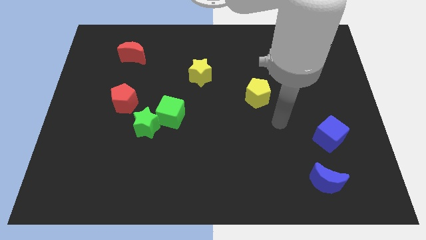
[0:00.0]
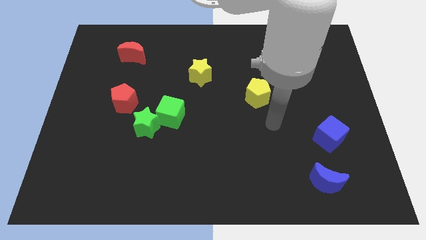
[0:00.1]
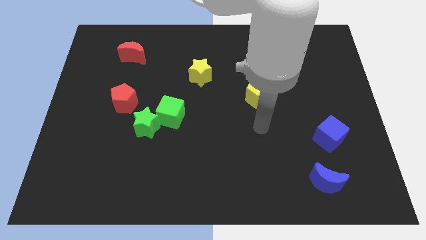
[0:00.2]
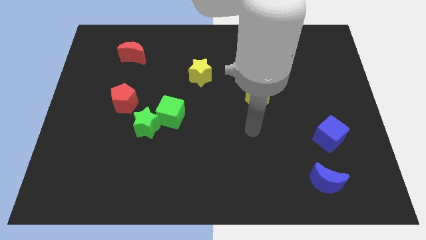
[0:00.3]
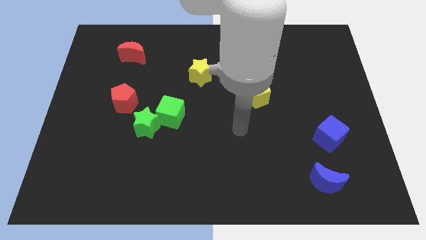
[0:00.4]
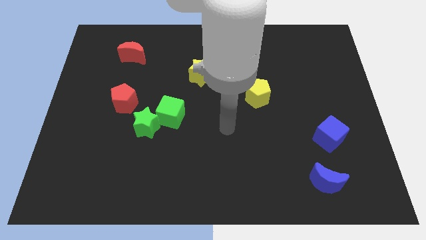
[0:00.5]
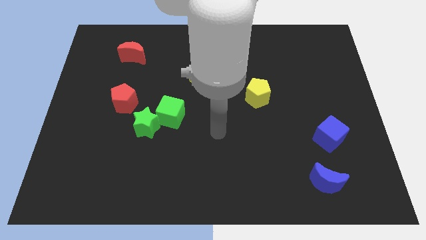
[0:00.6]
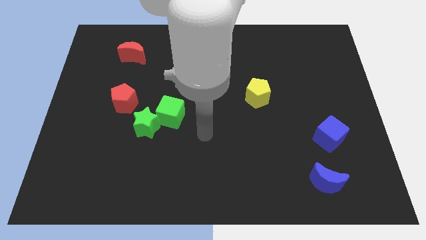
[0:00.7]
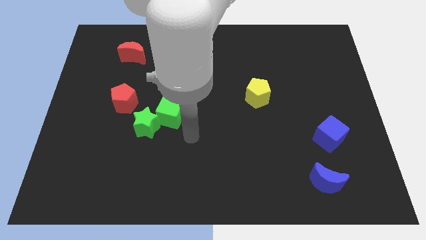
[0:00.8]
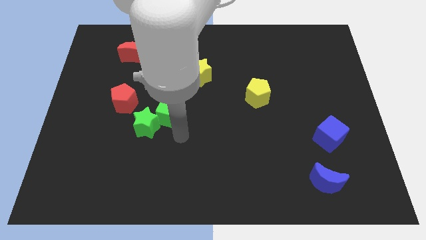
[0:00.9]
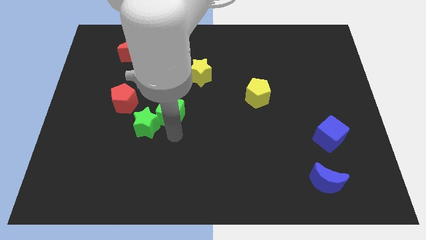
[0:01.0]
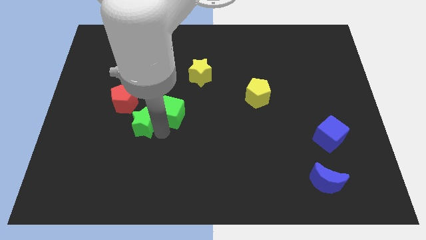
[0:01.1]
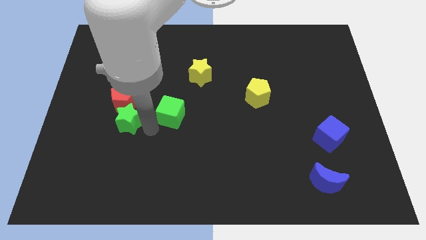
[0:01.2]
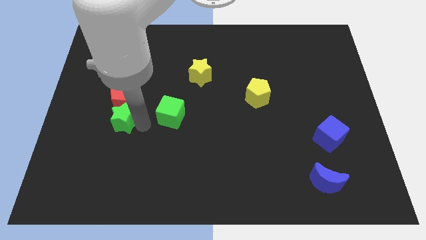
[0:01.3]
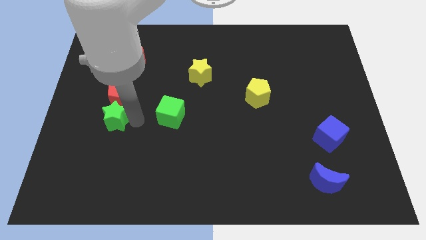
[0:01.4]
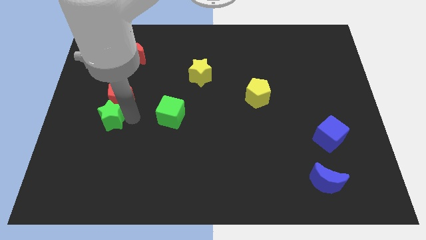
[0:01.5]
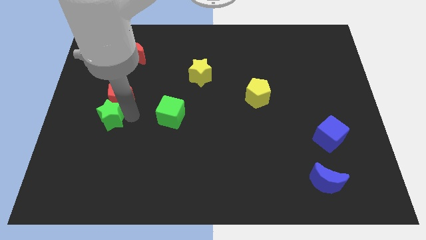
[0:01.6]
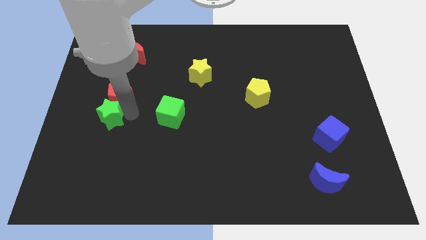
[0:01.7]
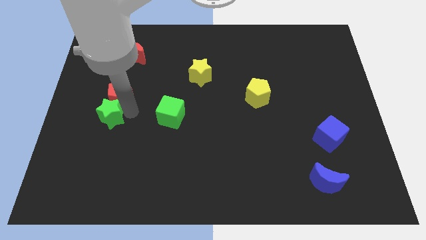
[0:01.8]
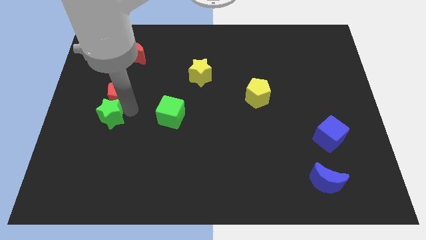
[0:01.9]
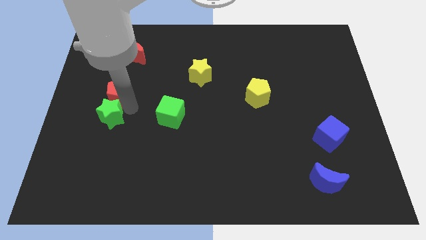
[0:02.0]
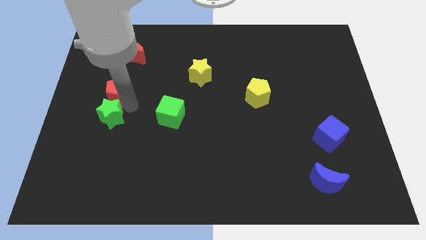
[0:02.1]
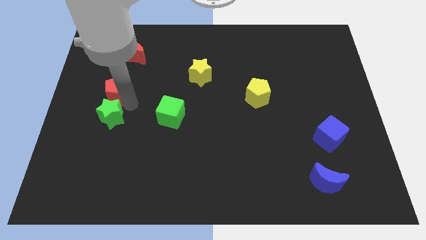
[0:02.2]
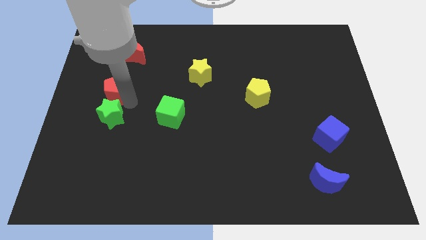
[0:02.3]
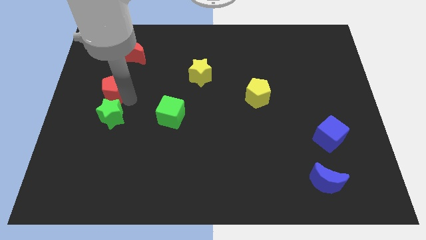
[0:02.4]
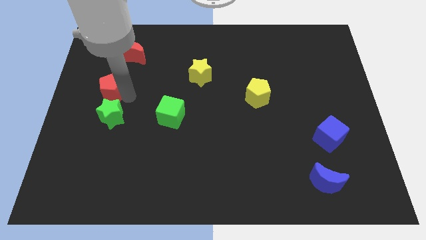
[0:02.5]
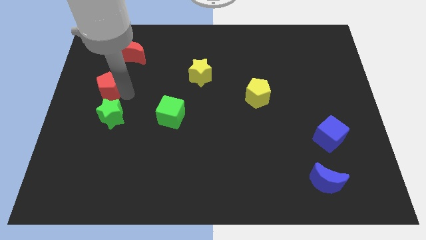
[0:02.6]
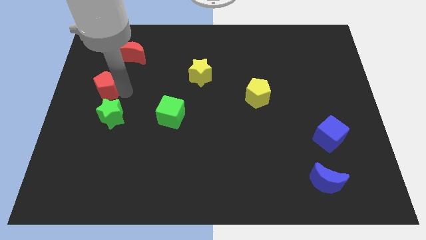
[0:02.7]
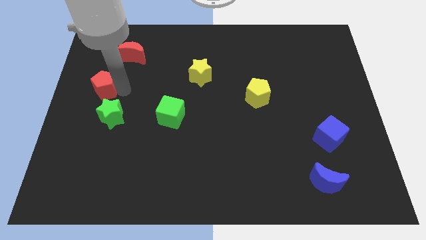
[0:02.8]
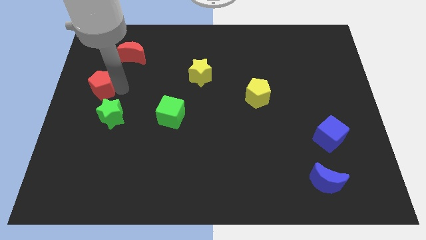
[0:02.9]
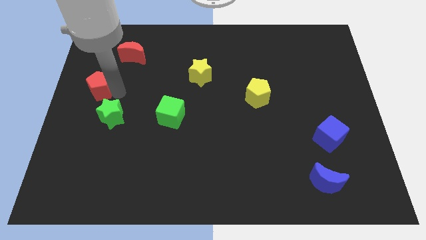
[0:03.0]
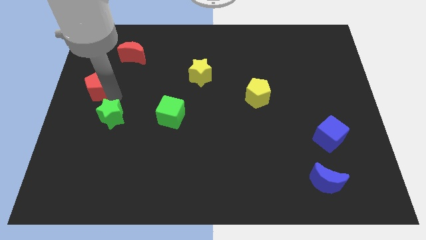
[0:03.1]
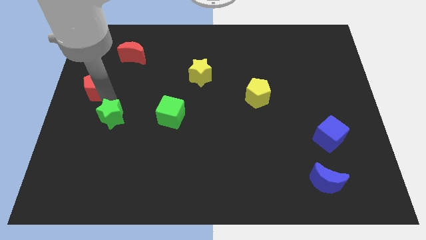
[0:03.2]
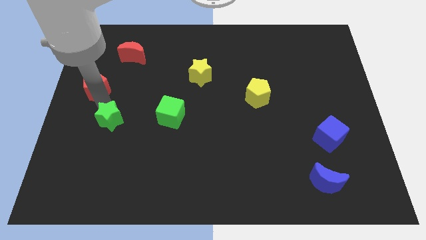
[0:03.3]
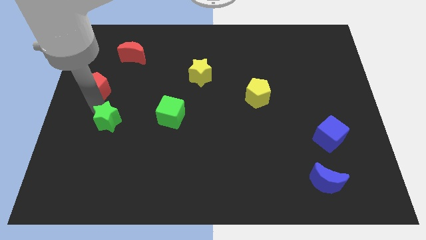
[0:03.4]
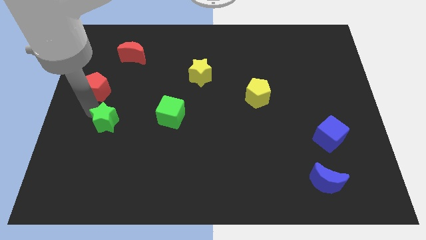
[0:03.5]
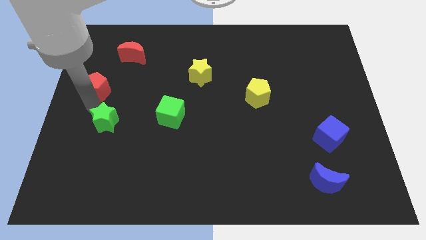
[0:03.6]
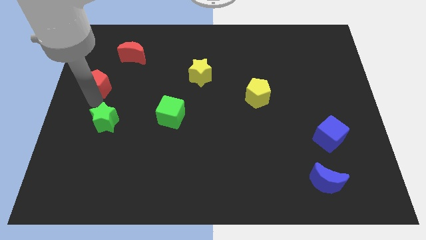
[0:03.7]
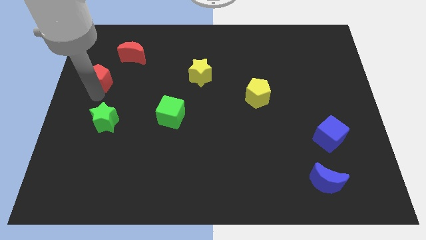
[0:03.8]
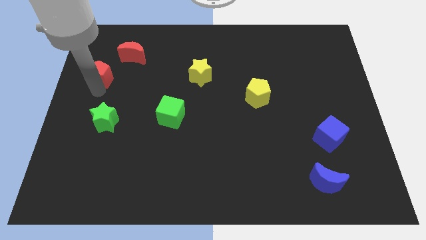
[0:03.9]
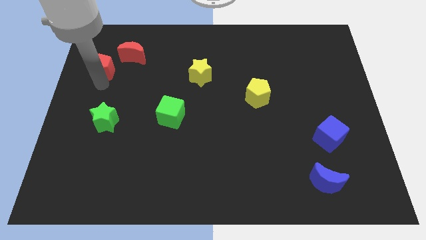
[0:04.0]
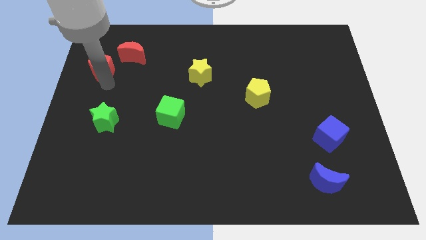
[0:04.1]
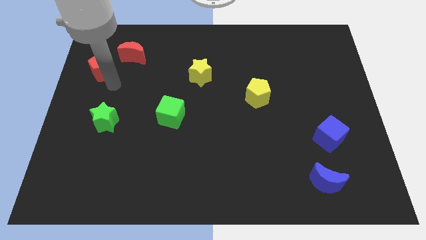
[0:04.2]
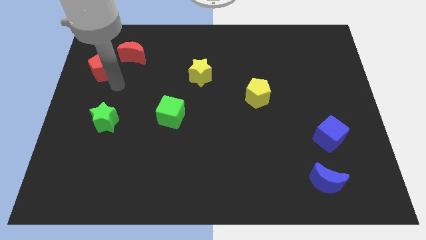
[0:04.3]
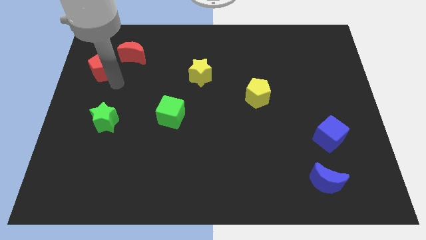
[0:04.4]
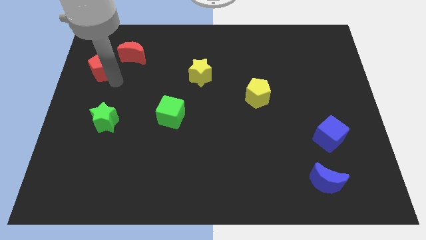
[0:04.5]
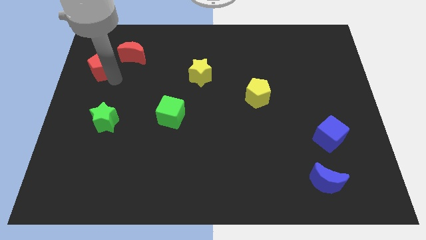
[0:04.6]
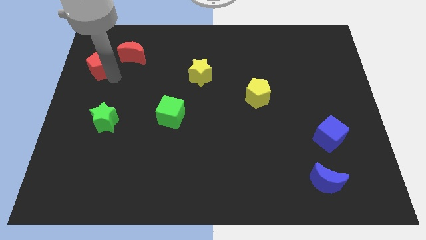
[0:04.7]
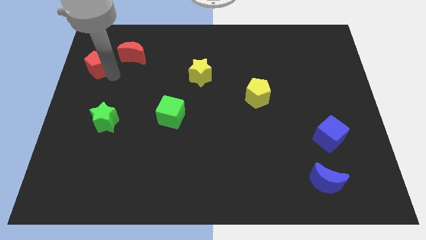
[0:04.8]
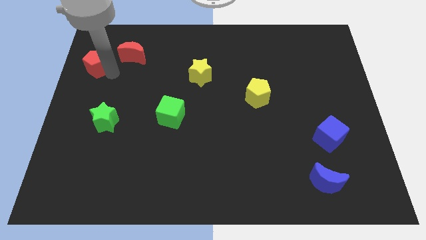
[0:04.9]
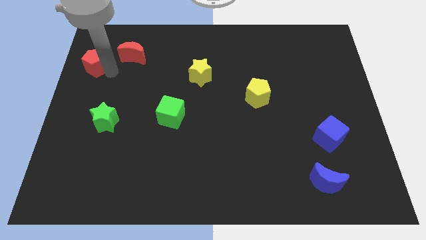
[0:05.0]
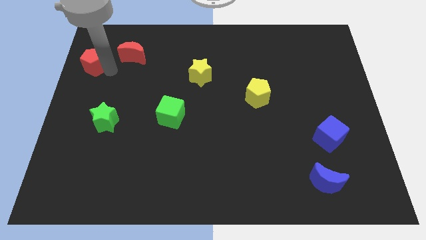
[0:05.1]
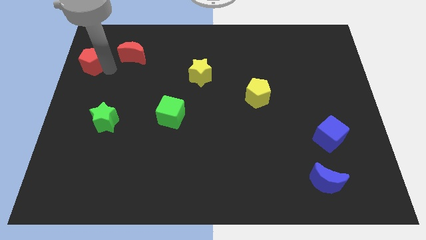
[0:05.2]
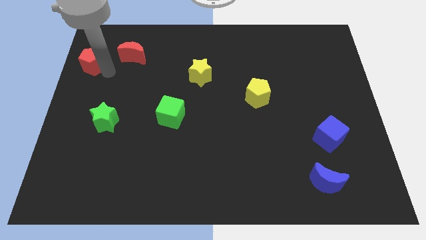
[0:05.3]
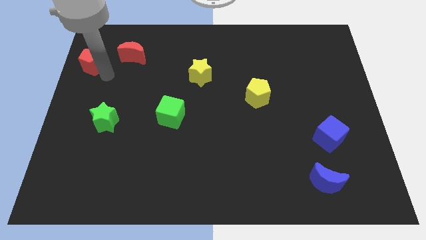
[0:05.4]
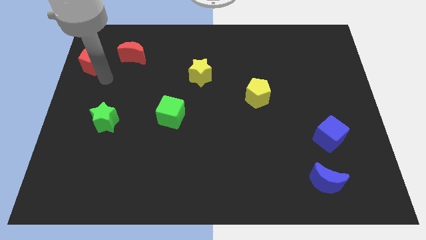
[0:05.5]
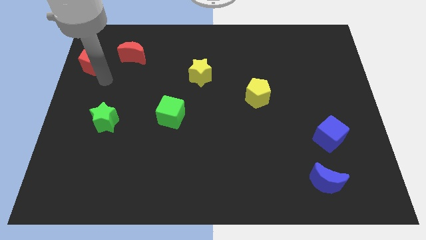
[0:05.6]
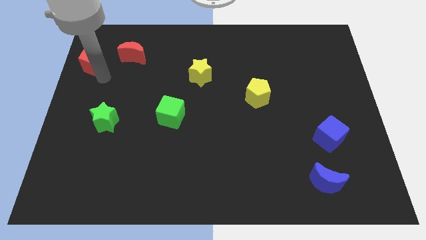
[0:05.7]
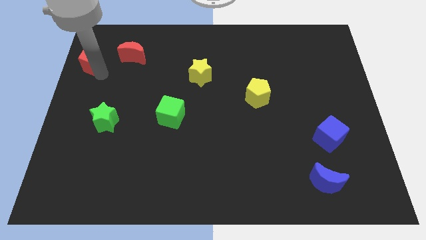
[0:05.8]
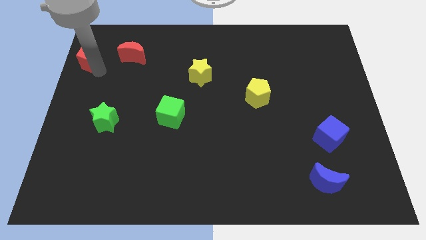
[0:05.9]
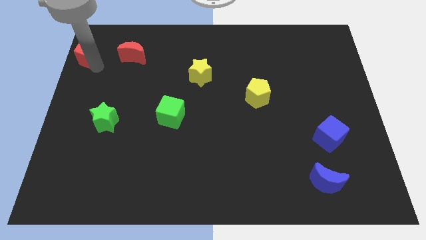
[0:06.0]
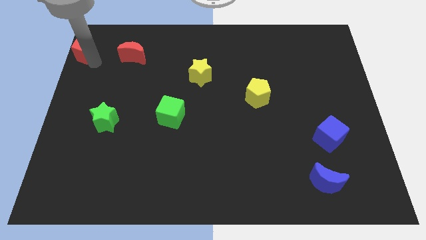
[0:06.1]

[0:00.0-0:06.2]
push the red pentagon to the top left of the board

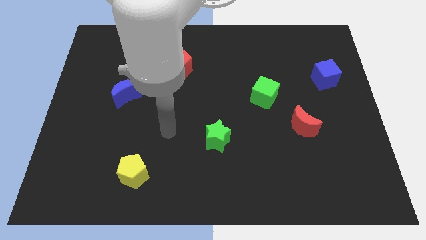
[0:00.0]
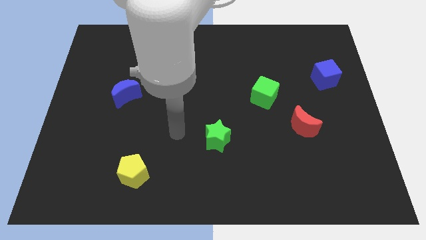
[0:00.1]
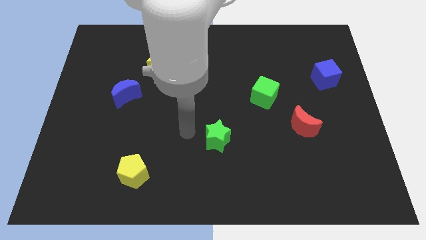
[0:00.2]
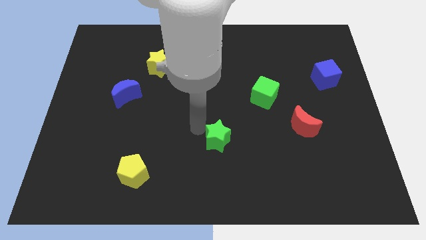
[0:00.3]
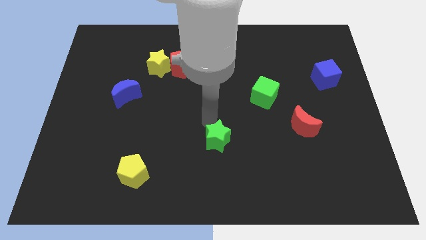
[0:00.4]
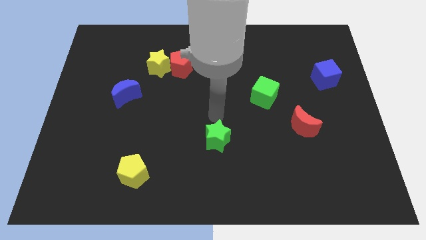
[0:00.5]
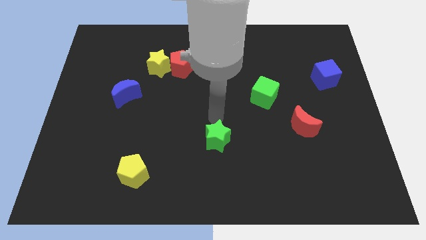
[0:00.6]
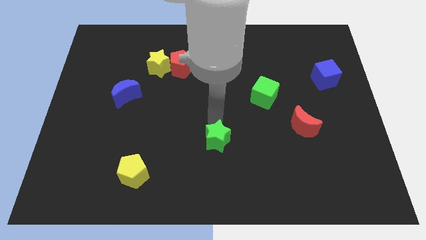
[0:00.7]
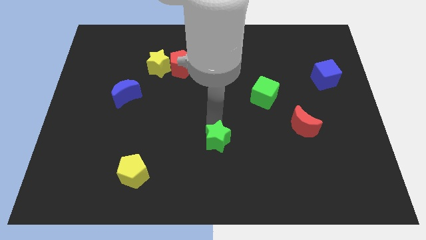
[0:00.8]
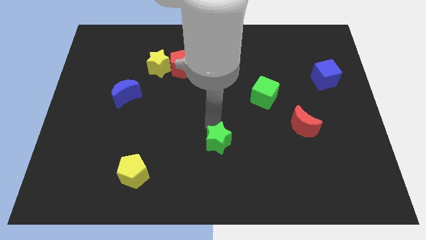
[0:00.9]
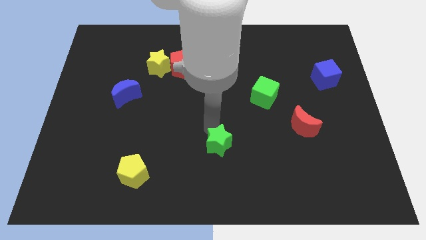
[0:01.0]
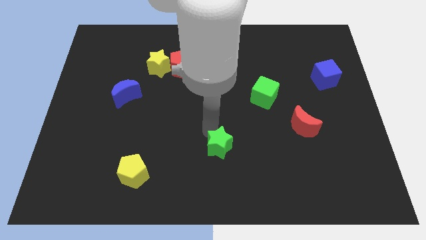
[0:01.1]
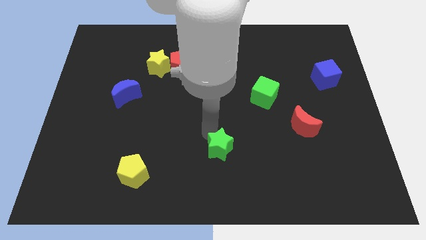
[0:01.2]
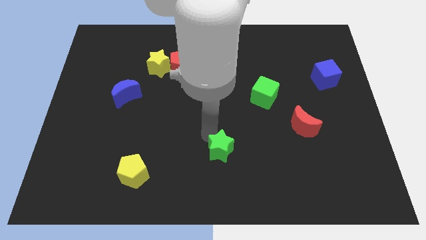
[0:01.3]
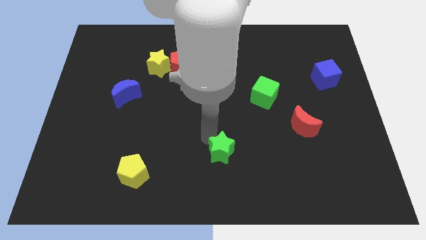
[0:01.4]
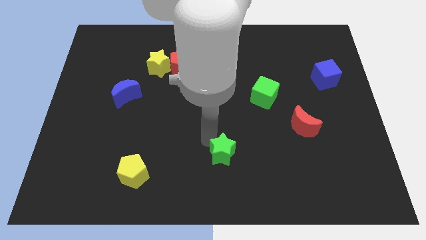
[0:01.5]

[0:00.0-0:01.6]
slide the green star to the bottom
